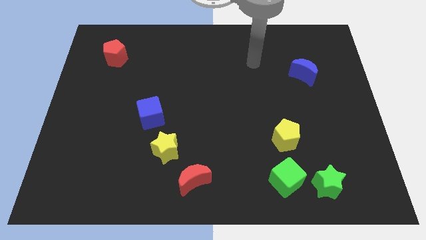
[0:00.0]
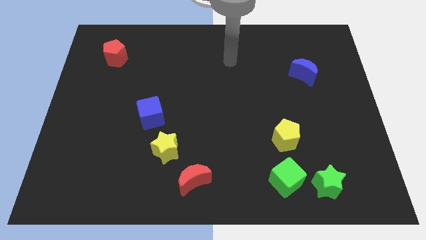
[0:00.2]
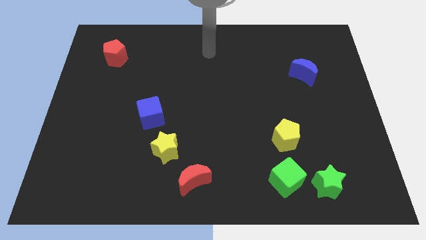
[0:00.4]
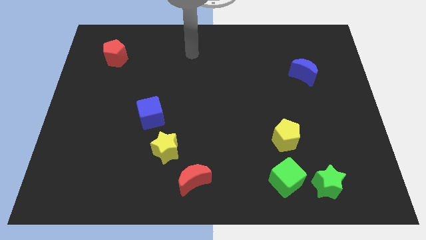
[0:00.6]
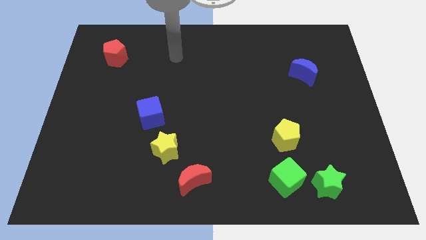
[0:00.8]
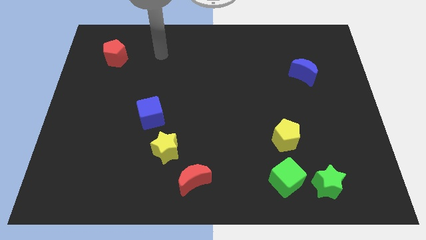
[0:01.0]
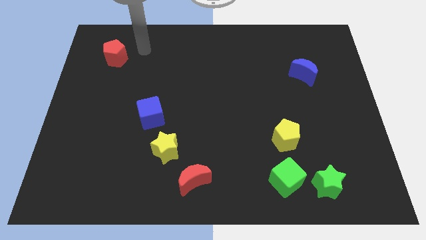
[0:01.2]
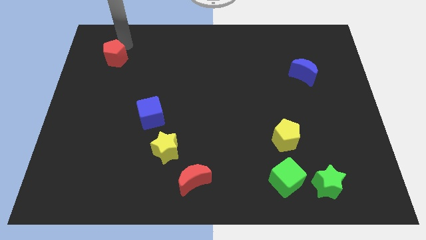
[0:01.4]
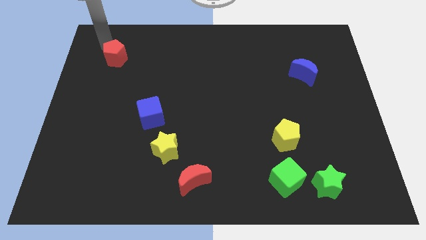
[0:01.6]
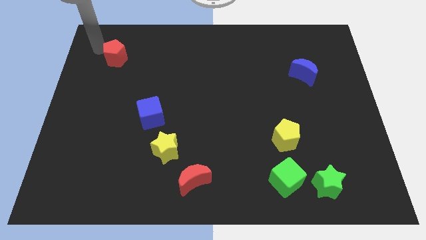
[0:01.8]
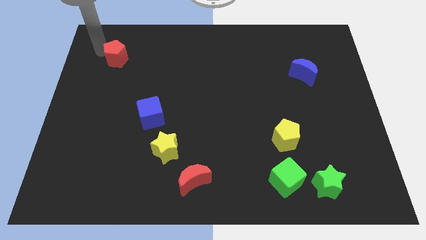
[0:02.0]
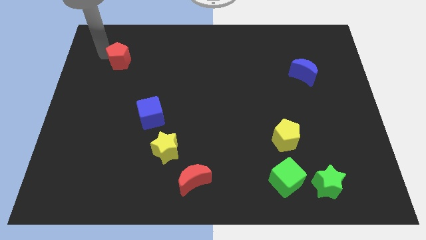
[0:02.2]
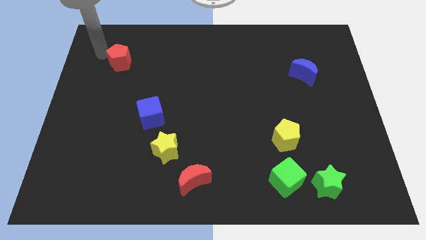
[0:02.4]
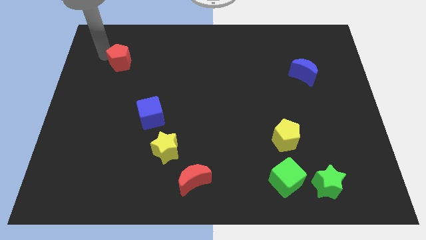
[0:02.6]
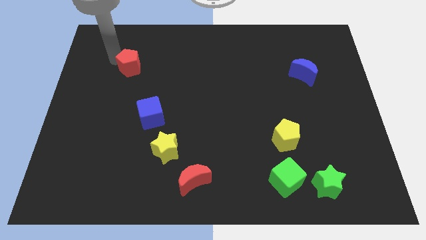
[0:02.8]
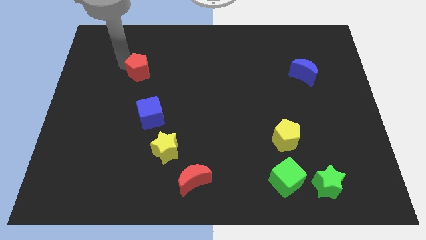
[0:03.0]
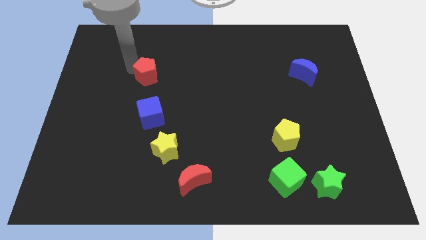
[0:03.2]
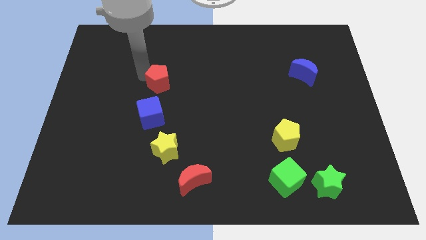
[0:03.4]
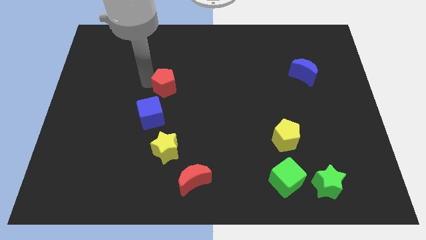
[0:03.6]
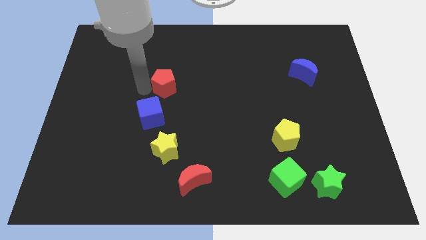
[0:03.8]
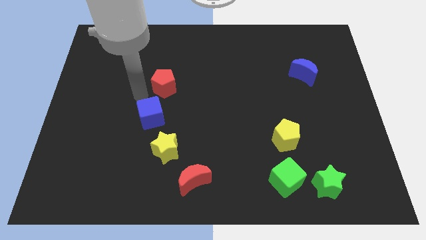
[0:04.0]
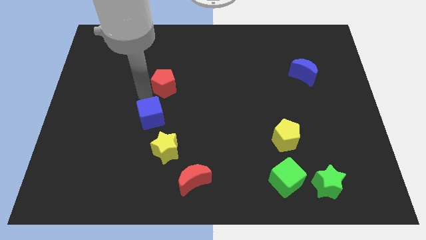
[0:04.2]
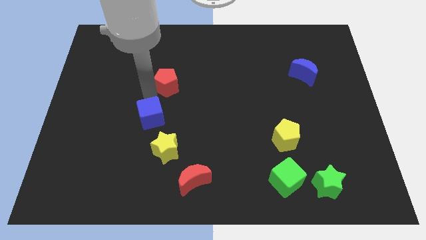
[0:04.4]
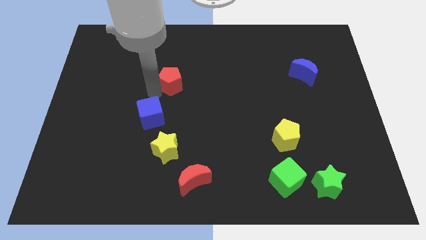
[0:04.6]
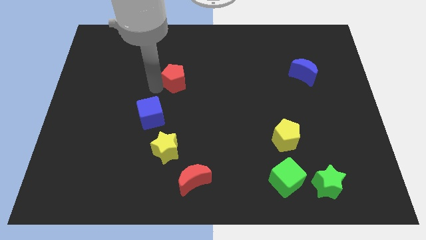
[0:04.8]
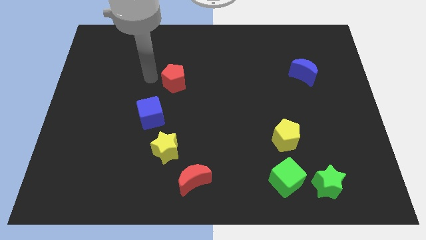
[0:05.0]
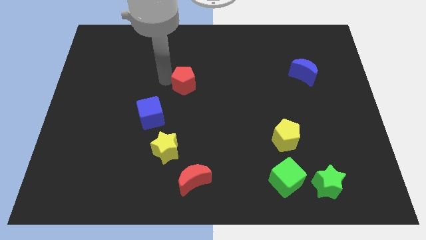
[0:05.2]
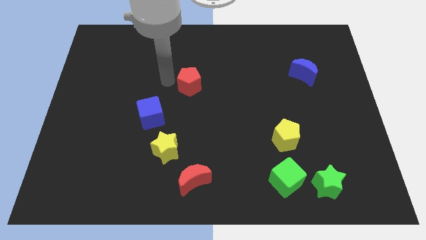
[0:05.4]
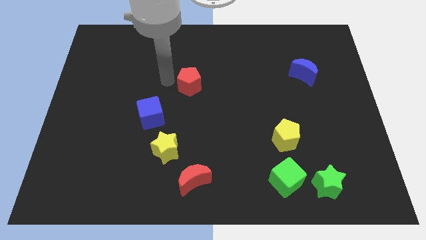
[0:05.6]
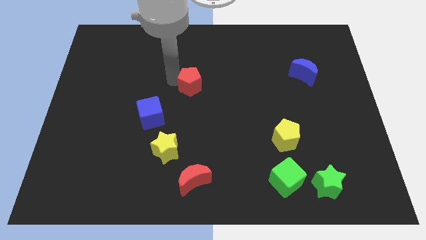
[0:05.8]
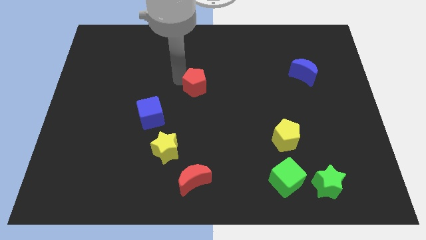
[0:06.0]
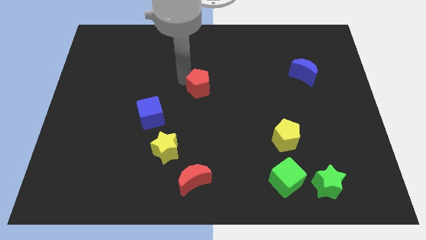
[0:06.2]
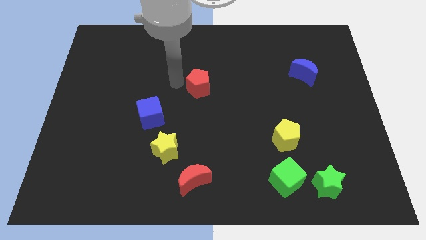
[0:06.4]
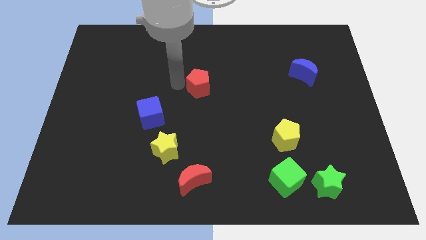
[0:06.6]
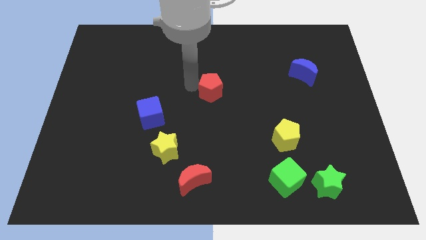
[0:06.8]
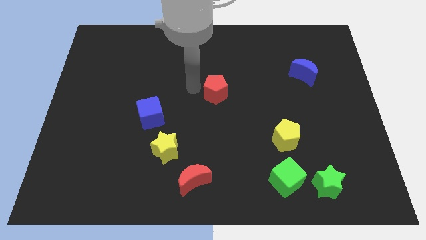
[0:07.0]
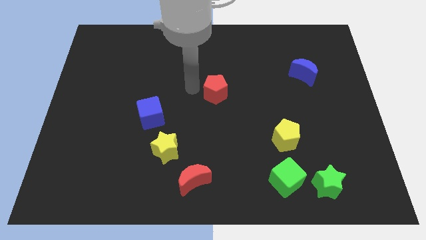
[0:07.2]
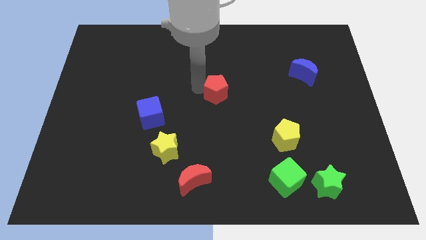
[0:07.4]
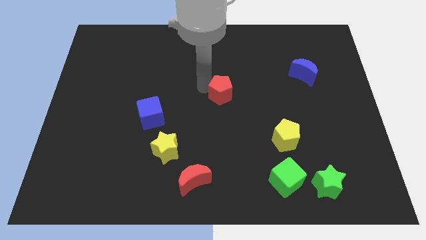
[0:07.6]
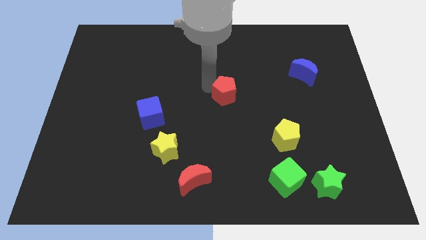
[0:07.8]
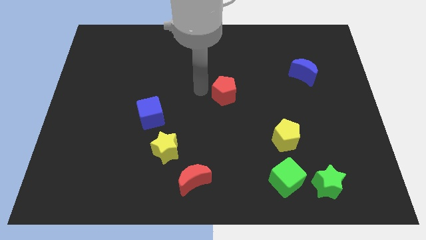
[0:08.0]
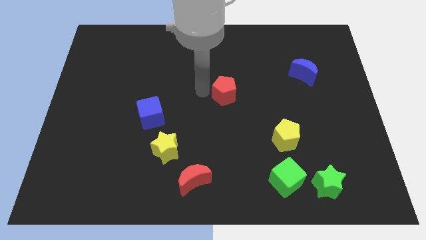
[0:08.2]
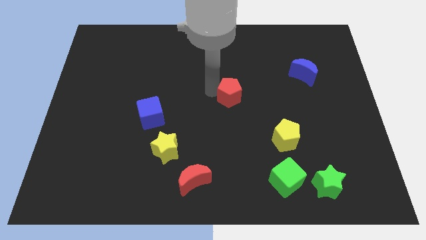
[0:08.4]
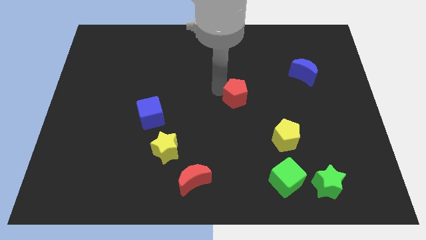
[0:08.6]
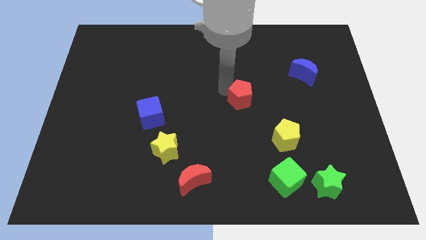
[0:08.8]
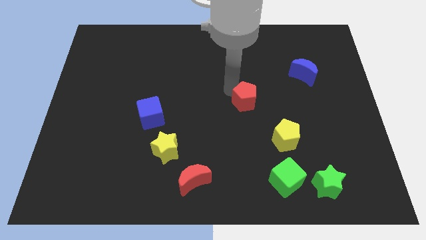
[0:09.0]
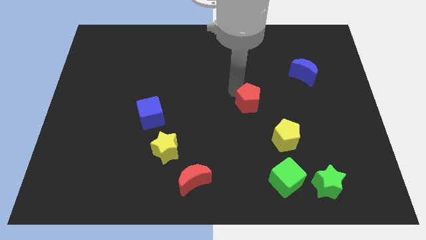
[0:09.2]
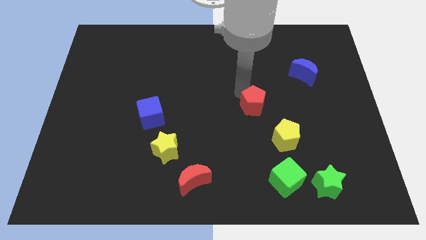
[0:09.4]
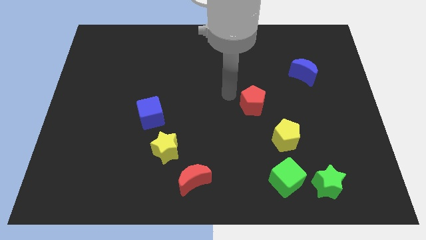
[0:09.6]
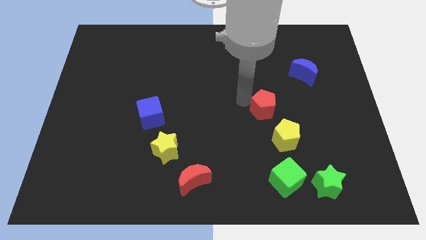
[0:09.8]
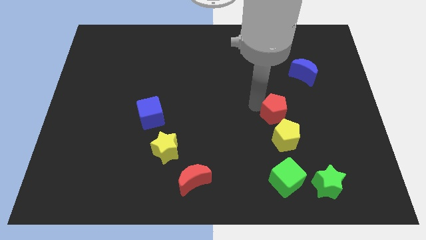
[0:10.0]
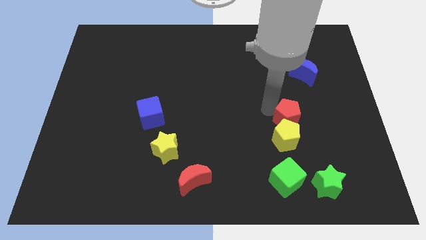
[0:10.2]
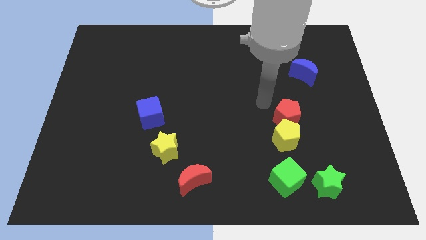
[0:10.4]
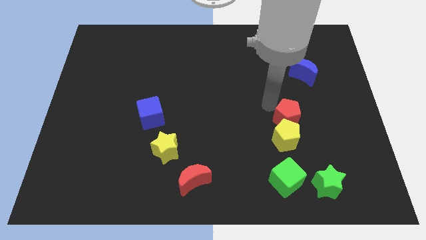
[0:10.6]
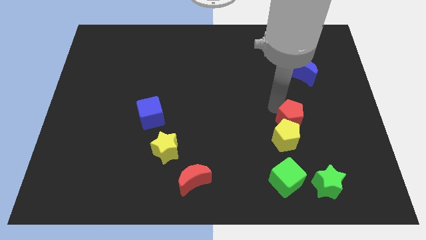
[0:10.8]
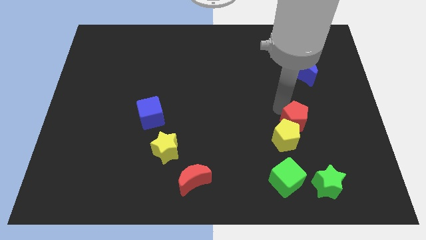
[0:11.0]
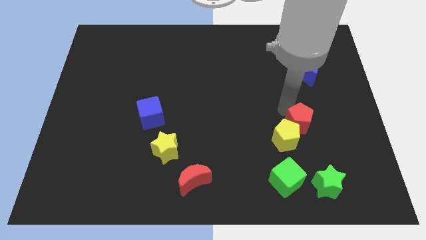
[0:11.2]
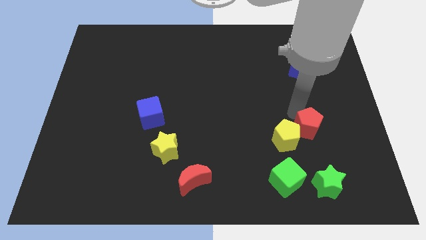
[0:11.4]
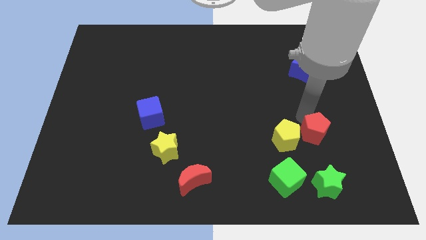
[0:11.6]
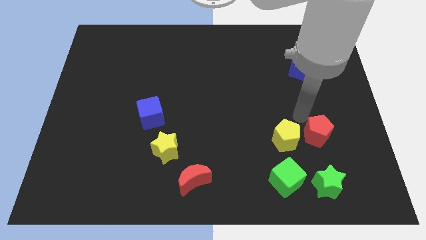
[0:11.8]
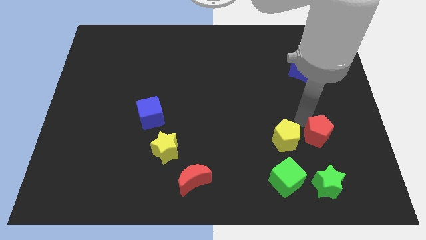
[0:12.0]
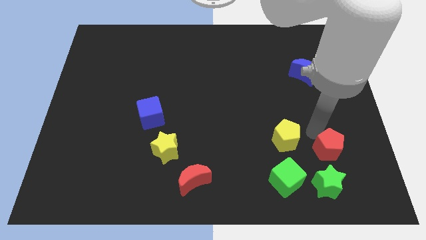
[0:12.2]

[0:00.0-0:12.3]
slide the red pentagon to the top right side of the green star
